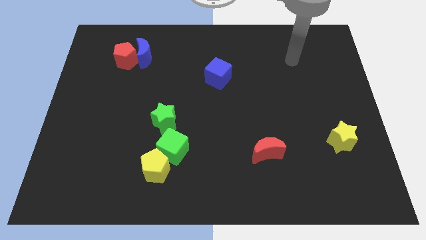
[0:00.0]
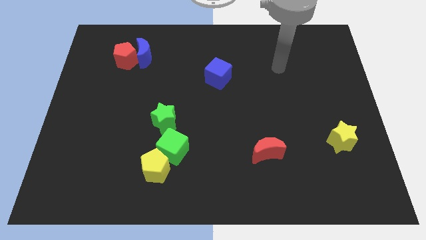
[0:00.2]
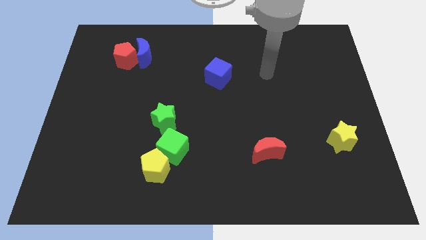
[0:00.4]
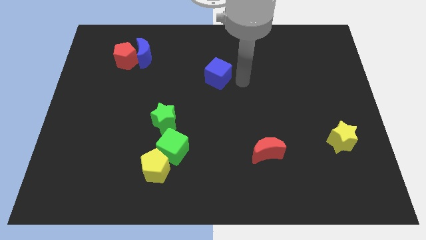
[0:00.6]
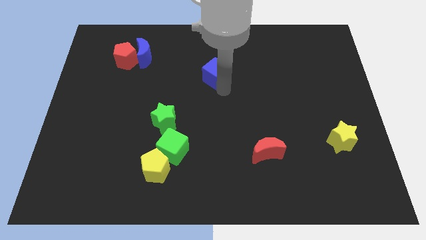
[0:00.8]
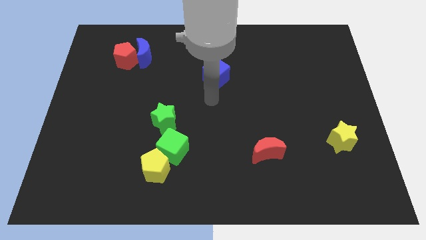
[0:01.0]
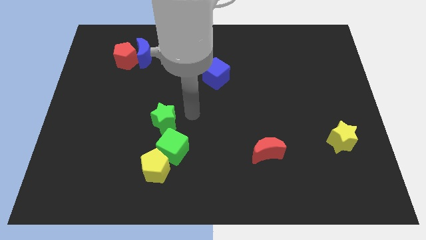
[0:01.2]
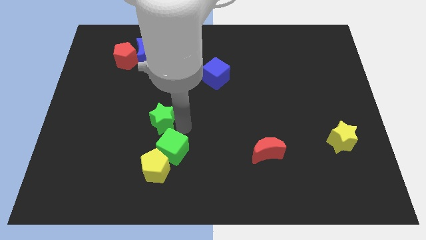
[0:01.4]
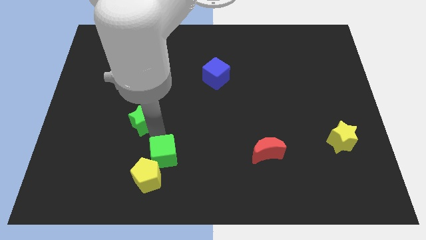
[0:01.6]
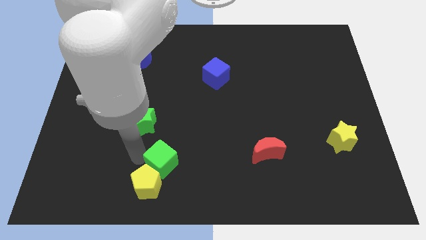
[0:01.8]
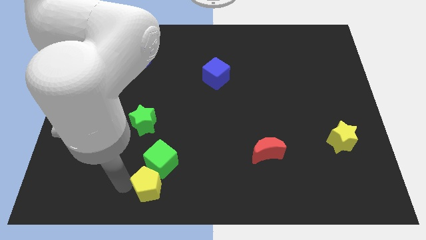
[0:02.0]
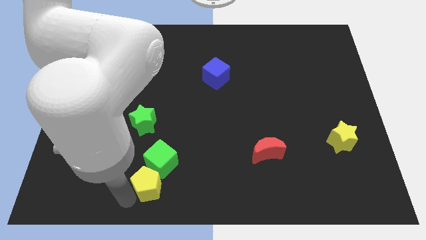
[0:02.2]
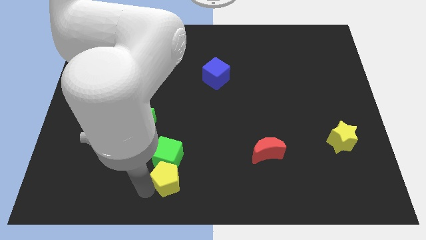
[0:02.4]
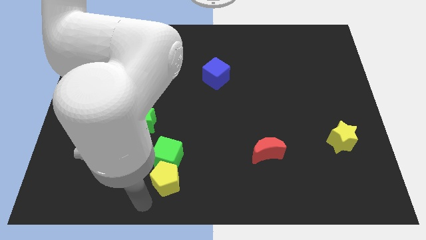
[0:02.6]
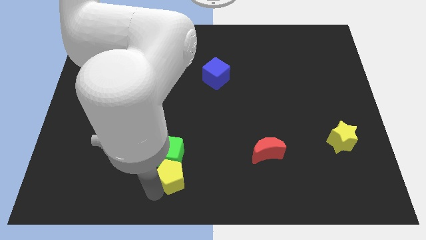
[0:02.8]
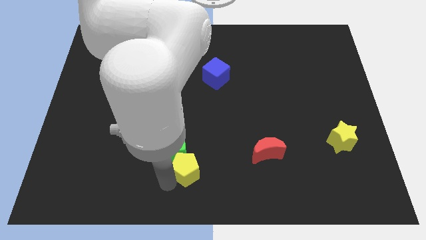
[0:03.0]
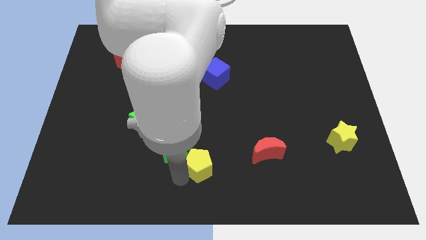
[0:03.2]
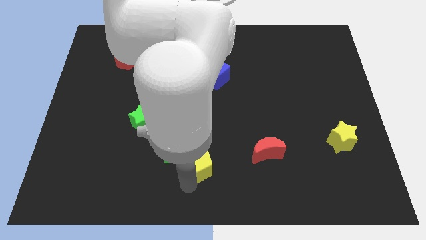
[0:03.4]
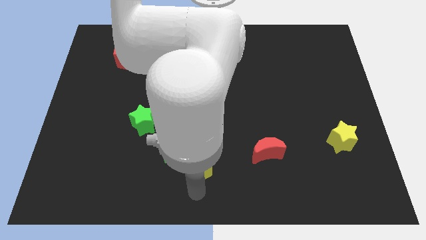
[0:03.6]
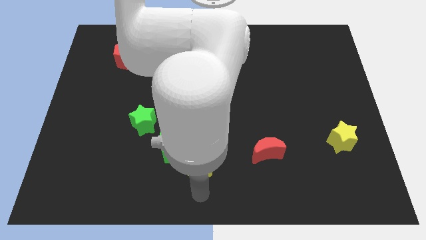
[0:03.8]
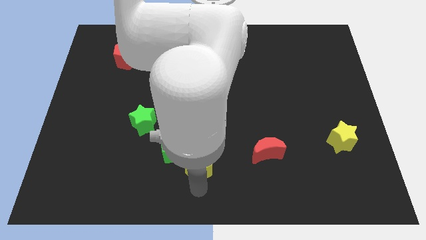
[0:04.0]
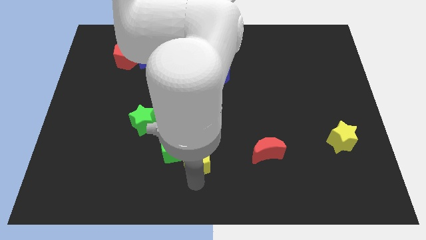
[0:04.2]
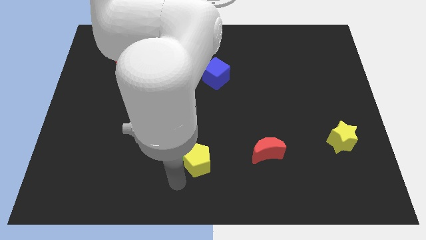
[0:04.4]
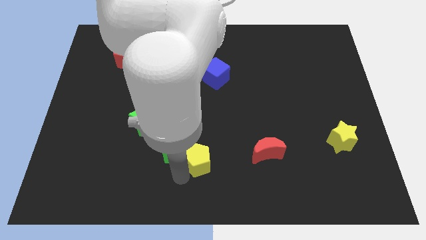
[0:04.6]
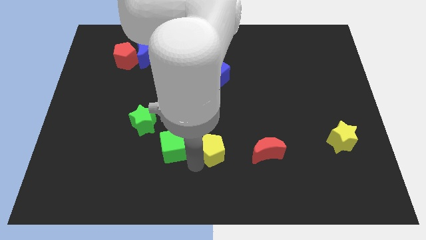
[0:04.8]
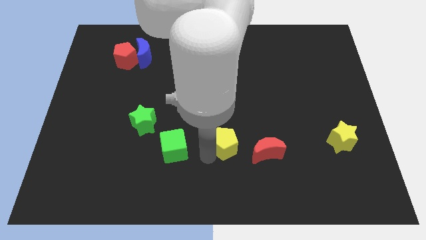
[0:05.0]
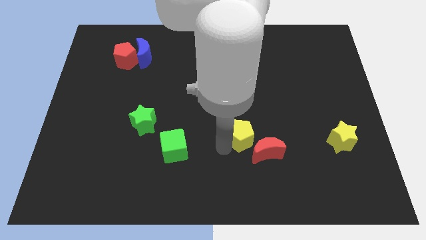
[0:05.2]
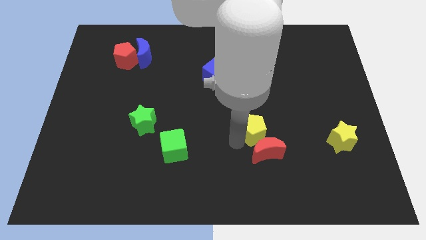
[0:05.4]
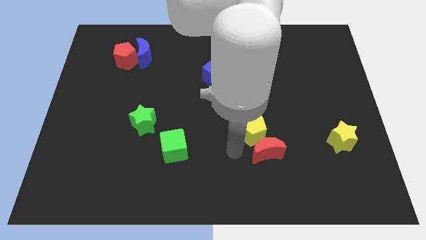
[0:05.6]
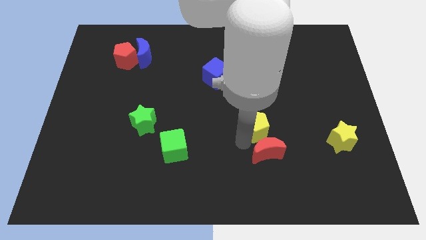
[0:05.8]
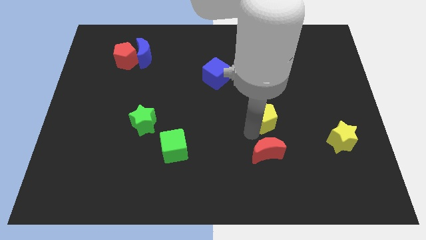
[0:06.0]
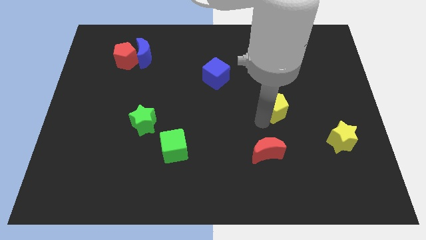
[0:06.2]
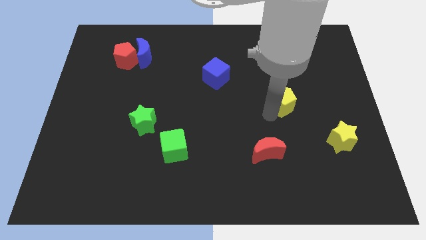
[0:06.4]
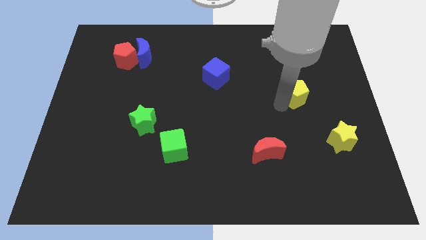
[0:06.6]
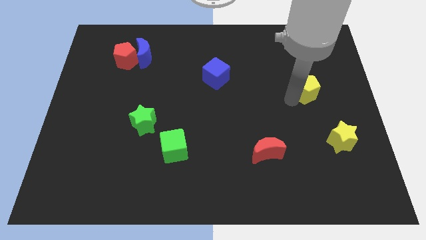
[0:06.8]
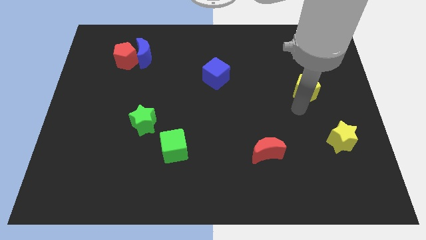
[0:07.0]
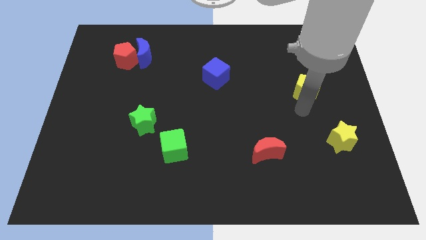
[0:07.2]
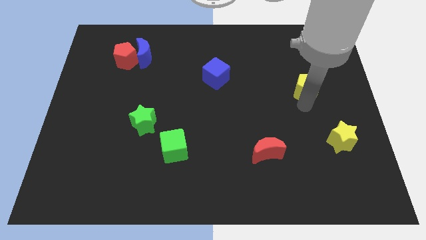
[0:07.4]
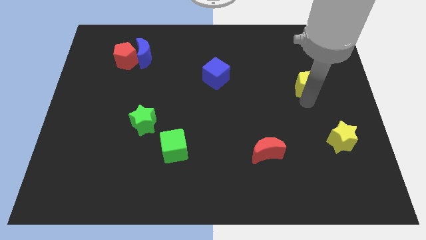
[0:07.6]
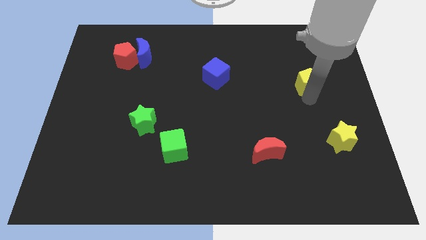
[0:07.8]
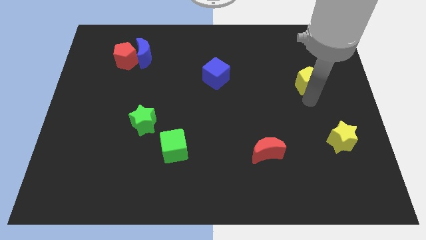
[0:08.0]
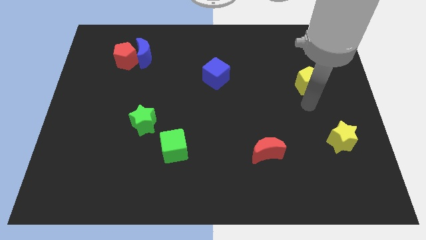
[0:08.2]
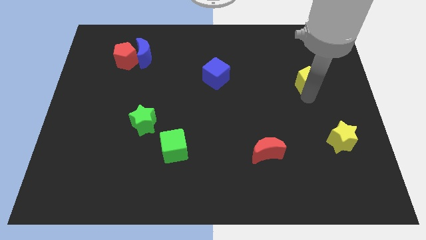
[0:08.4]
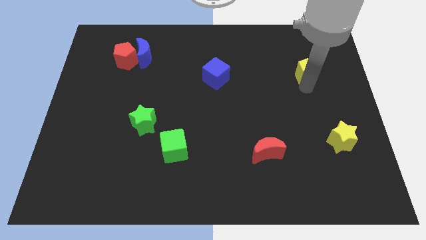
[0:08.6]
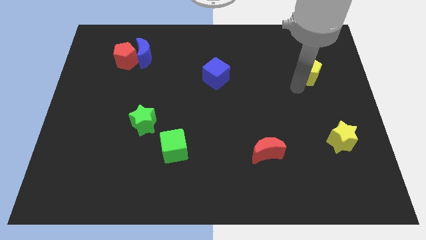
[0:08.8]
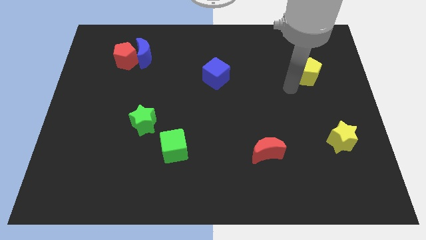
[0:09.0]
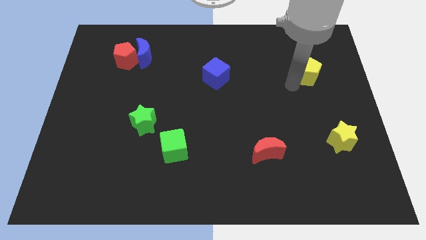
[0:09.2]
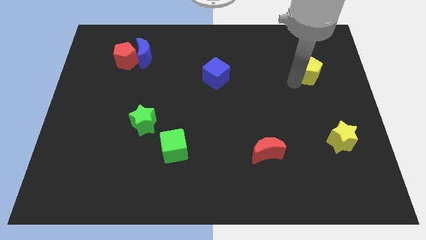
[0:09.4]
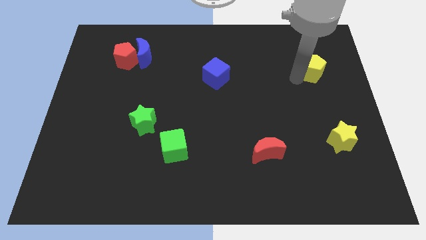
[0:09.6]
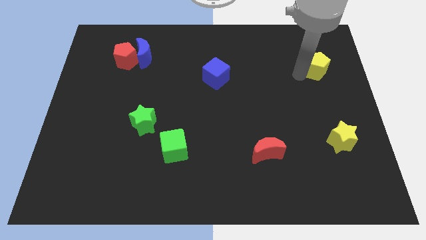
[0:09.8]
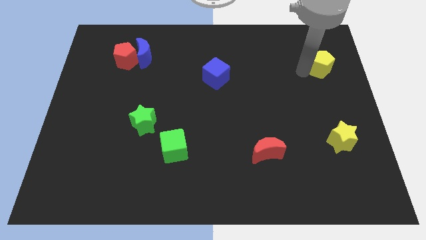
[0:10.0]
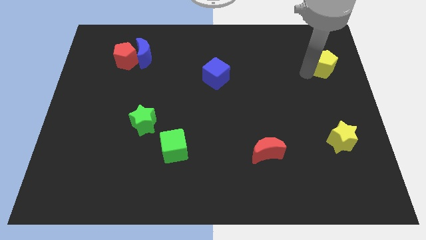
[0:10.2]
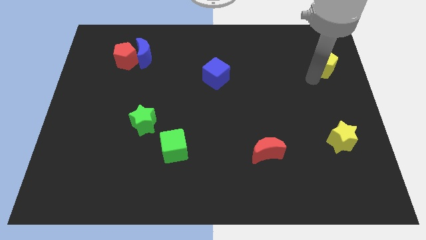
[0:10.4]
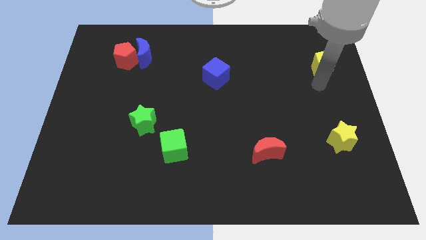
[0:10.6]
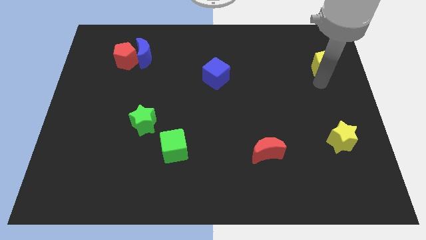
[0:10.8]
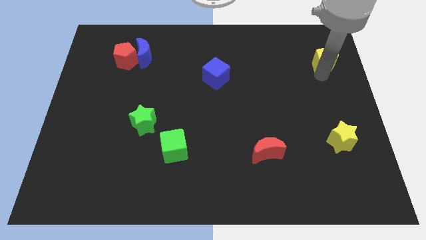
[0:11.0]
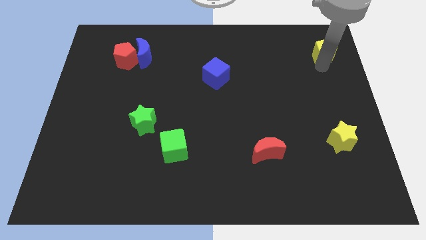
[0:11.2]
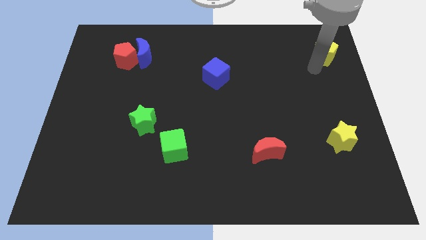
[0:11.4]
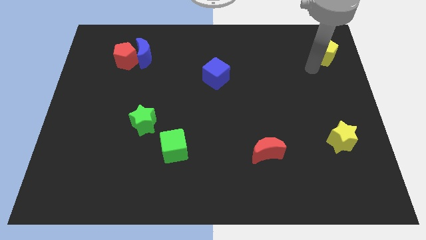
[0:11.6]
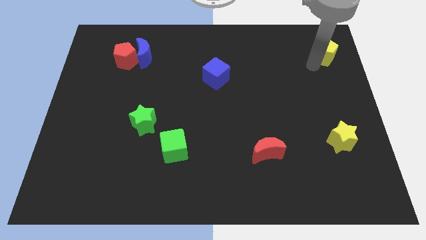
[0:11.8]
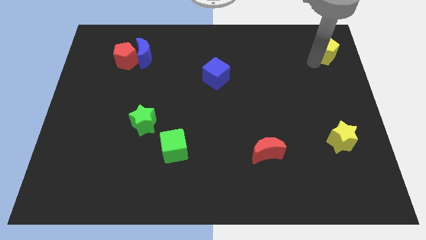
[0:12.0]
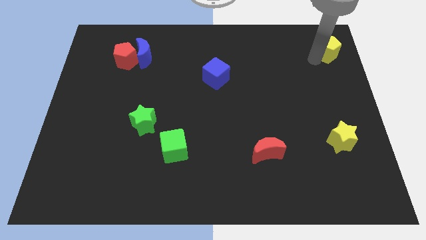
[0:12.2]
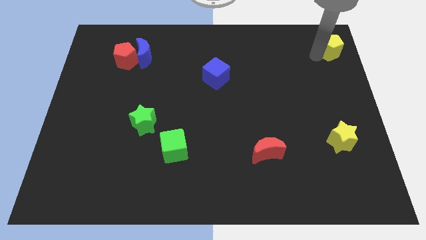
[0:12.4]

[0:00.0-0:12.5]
slide the yellow pentagon to the top right
